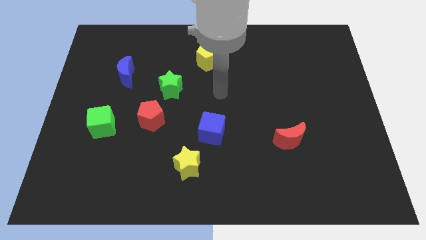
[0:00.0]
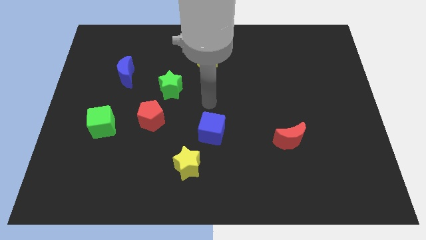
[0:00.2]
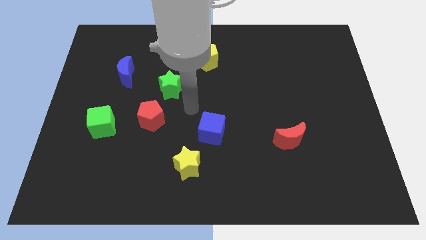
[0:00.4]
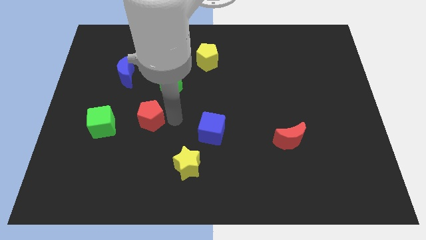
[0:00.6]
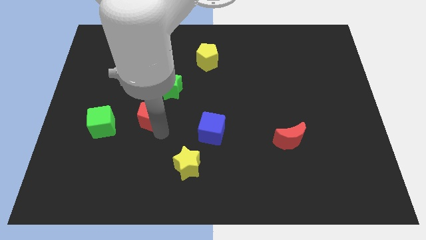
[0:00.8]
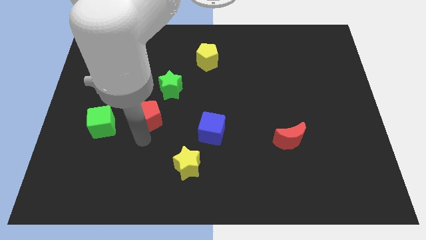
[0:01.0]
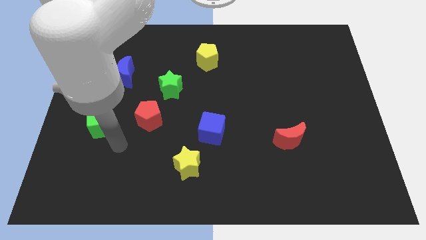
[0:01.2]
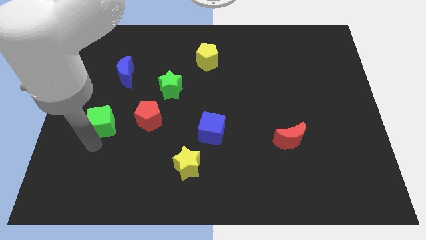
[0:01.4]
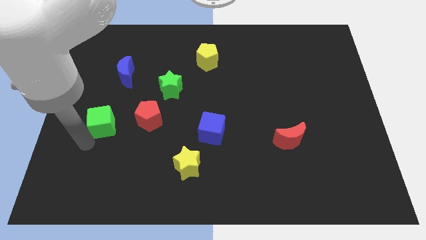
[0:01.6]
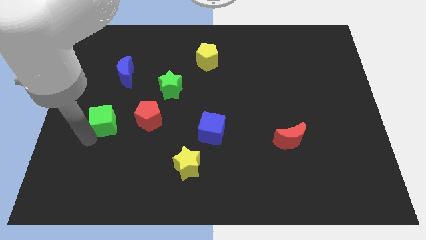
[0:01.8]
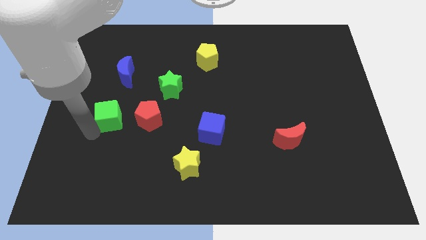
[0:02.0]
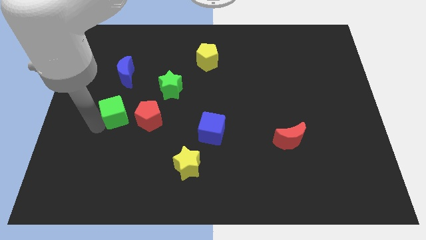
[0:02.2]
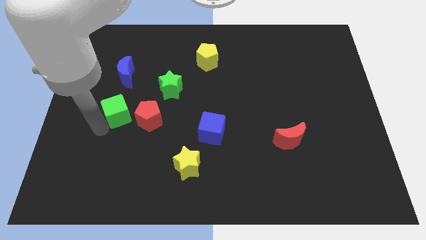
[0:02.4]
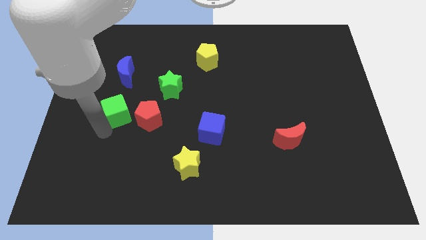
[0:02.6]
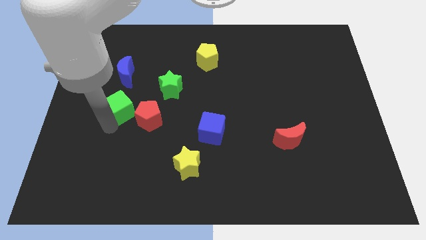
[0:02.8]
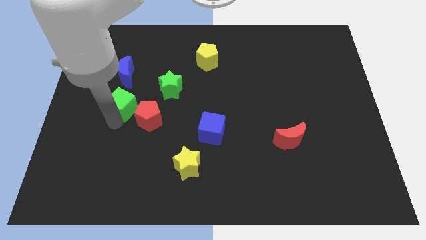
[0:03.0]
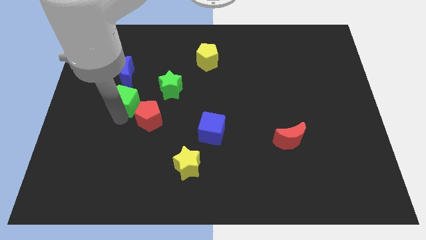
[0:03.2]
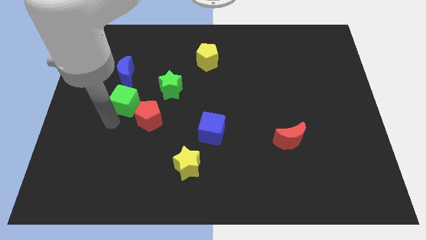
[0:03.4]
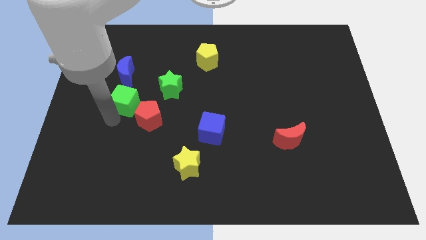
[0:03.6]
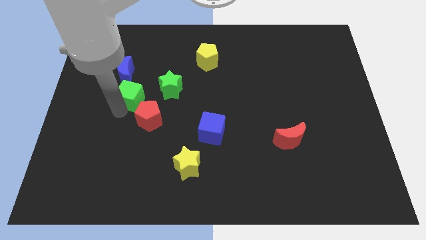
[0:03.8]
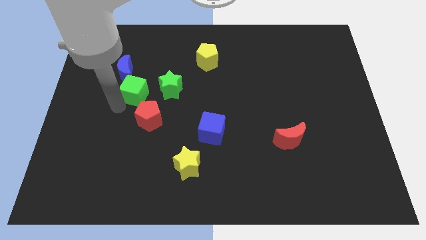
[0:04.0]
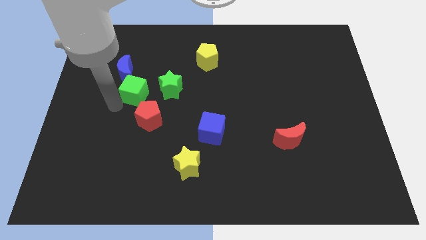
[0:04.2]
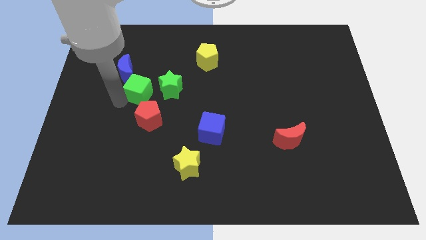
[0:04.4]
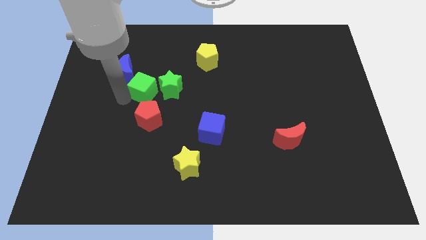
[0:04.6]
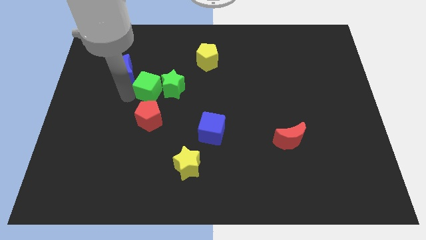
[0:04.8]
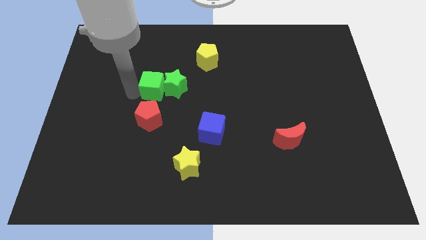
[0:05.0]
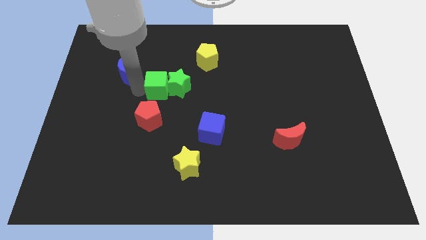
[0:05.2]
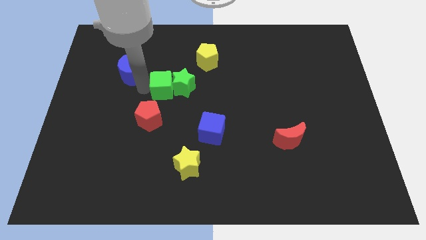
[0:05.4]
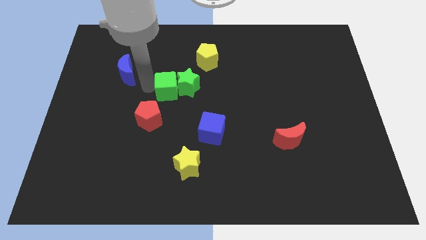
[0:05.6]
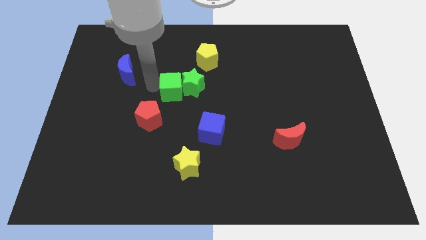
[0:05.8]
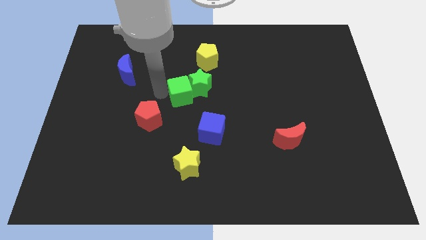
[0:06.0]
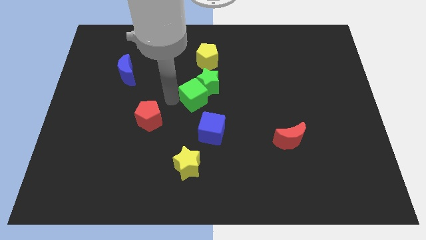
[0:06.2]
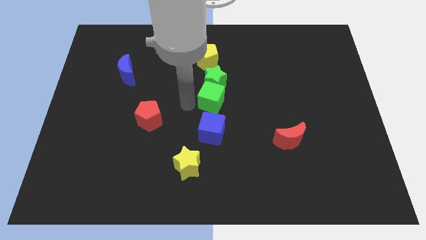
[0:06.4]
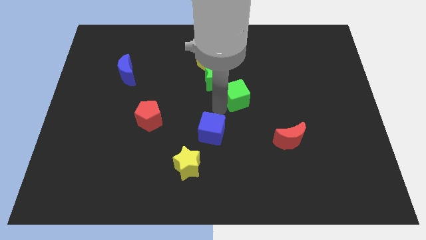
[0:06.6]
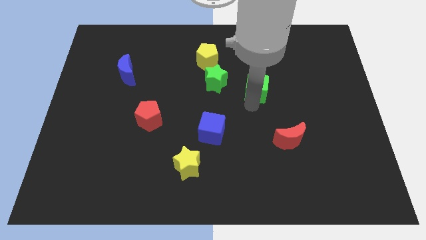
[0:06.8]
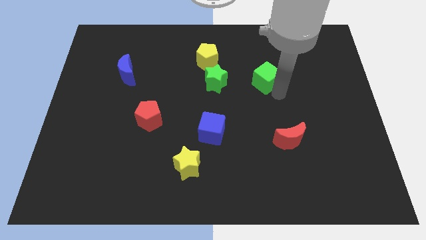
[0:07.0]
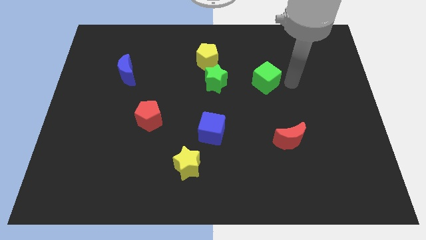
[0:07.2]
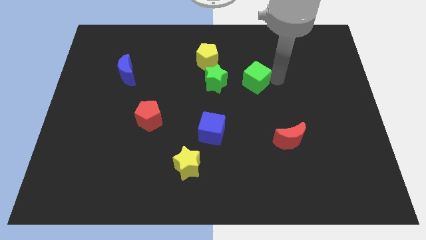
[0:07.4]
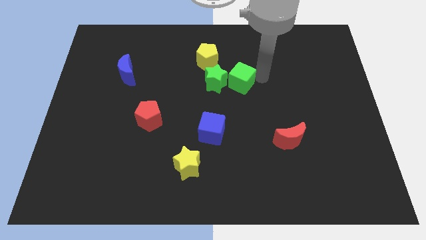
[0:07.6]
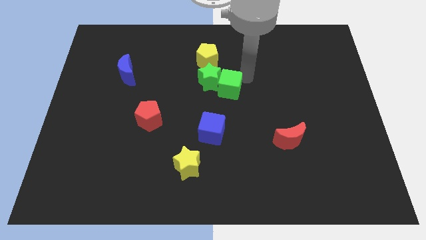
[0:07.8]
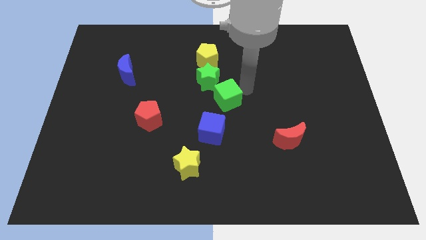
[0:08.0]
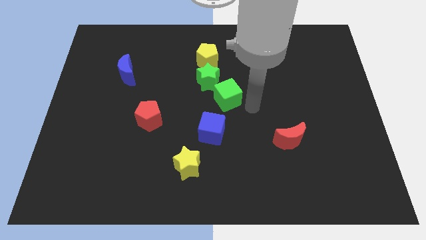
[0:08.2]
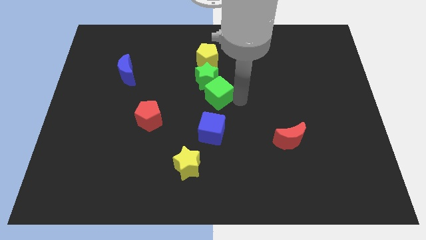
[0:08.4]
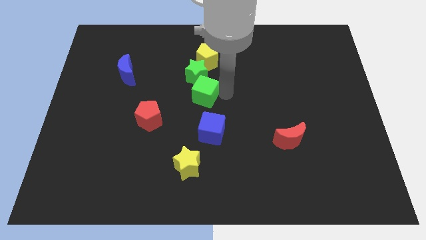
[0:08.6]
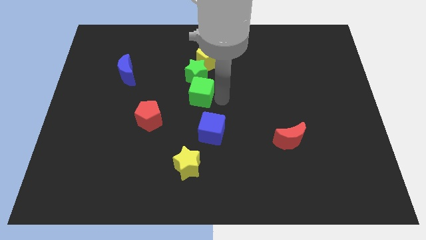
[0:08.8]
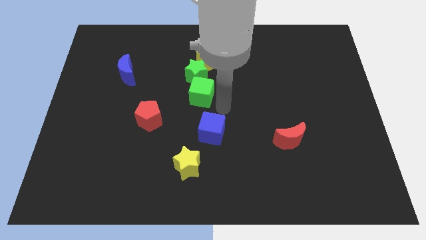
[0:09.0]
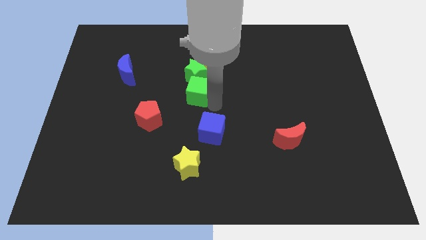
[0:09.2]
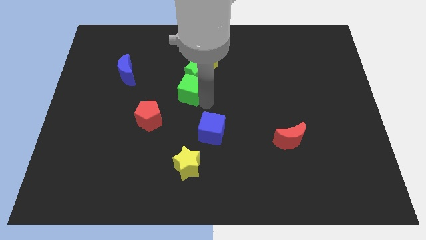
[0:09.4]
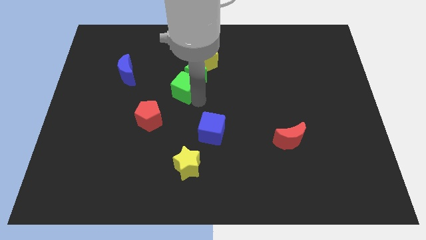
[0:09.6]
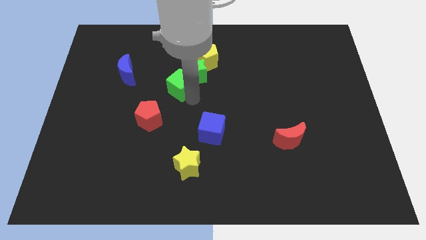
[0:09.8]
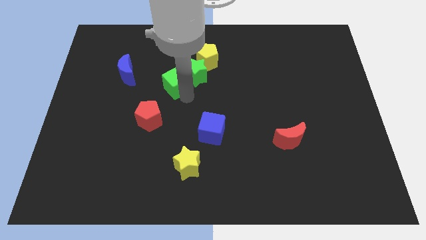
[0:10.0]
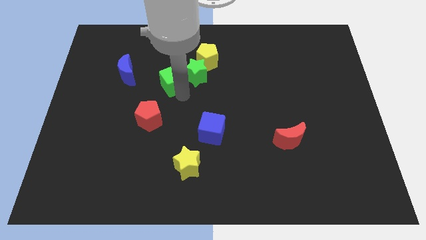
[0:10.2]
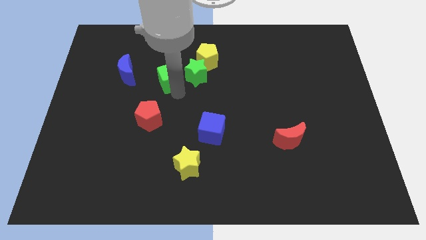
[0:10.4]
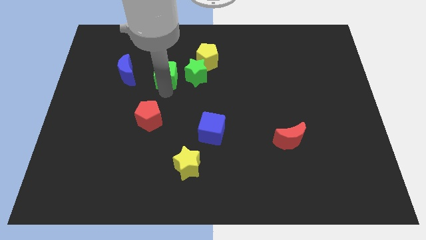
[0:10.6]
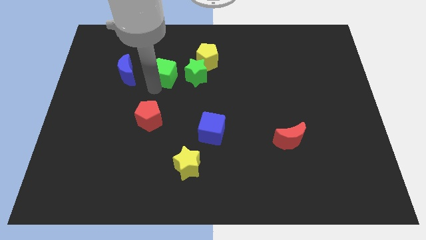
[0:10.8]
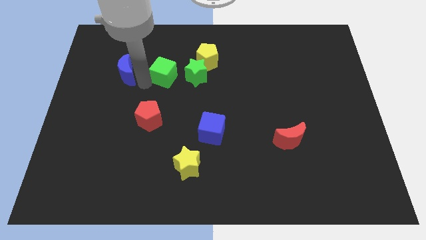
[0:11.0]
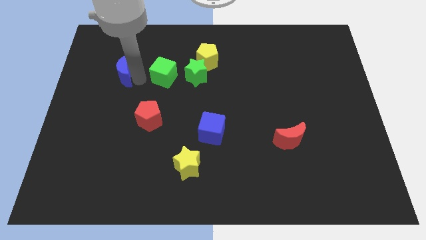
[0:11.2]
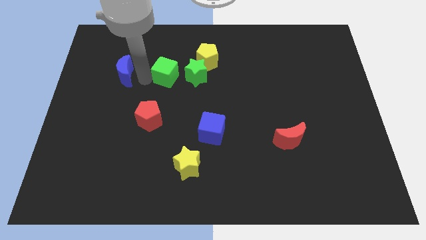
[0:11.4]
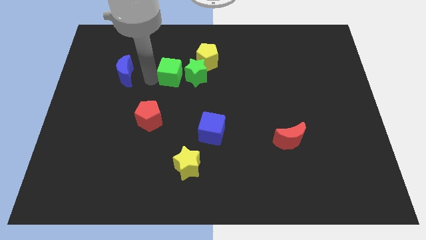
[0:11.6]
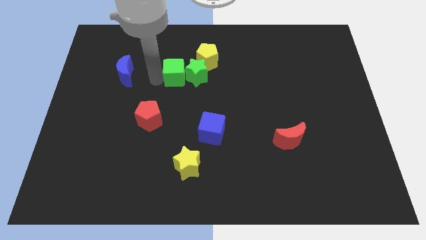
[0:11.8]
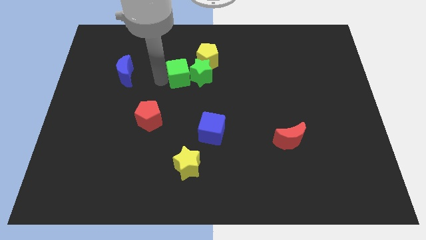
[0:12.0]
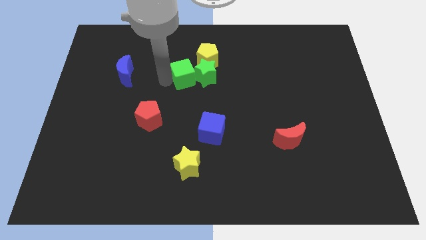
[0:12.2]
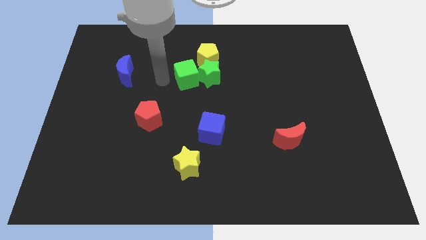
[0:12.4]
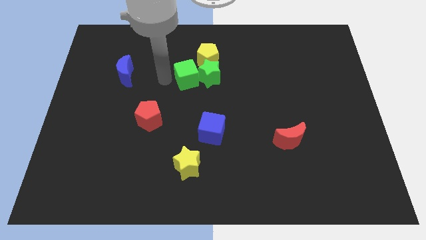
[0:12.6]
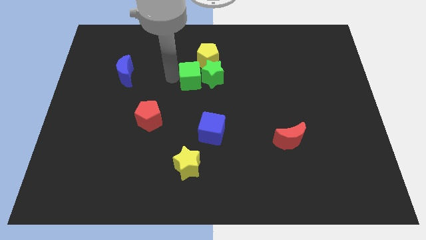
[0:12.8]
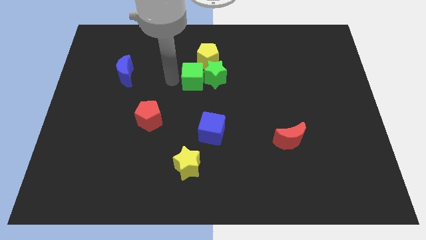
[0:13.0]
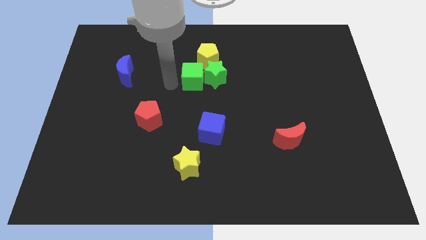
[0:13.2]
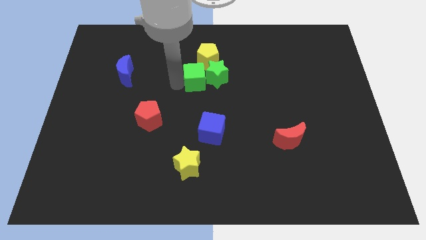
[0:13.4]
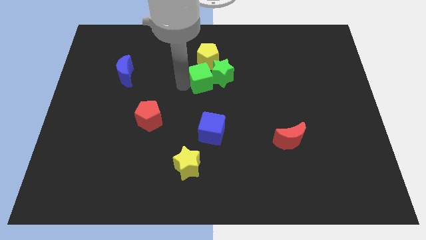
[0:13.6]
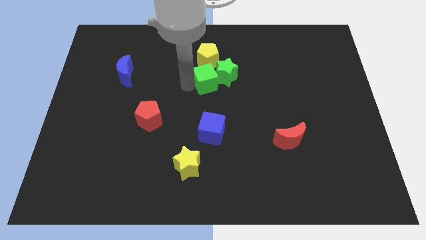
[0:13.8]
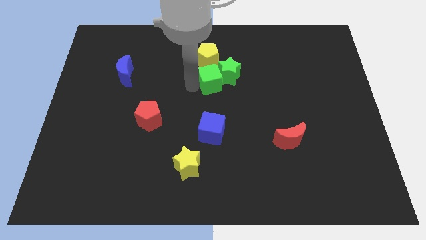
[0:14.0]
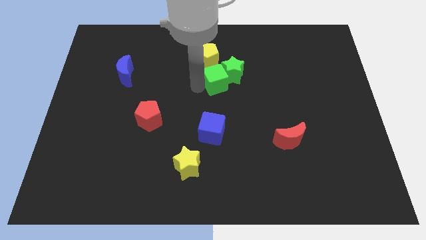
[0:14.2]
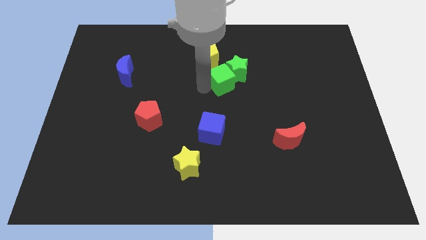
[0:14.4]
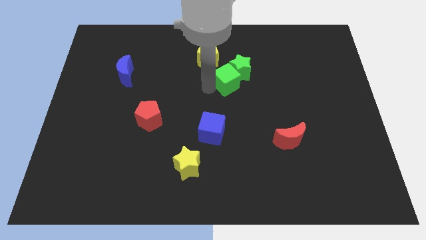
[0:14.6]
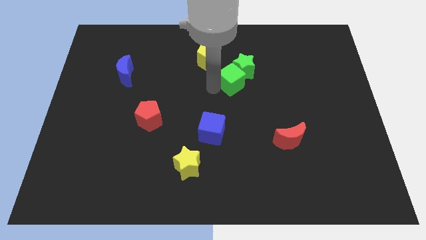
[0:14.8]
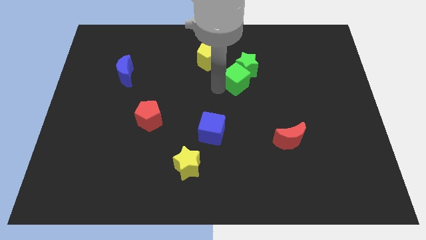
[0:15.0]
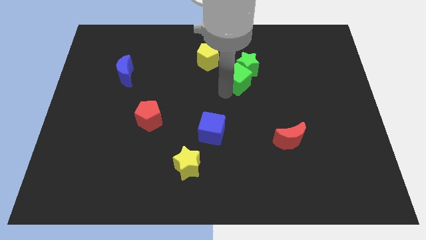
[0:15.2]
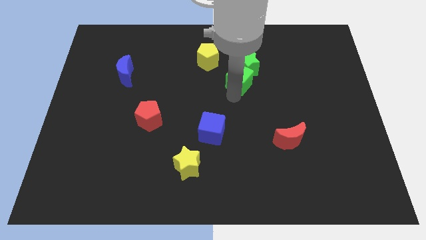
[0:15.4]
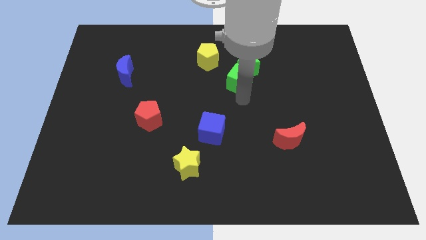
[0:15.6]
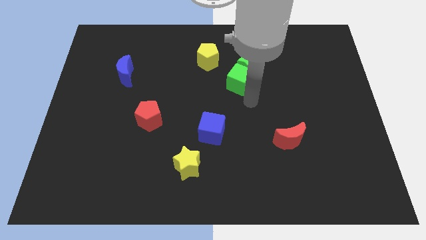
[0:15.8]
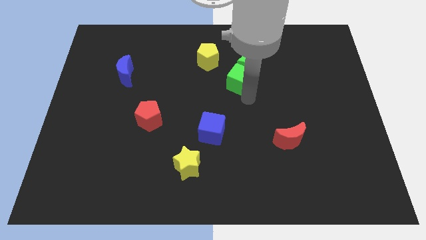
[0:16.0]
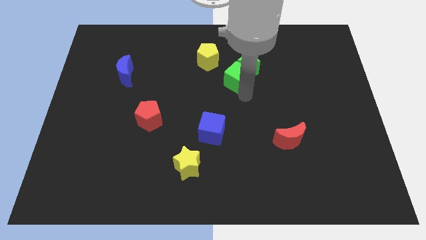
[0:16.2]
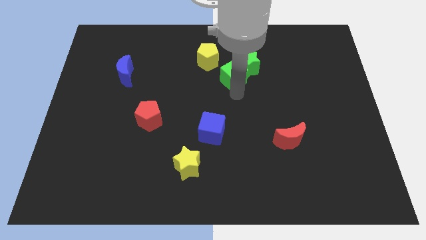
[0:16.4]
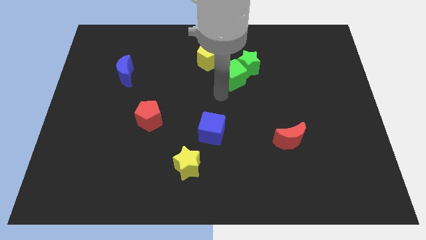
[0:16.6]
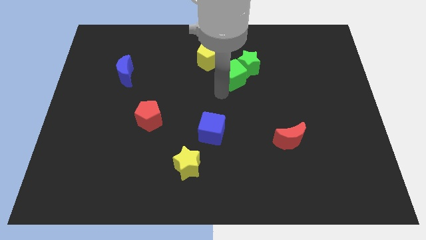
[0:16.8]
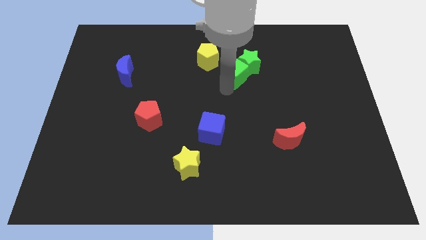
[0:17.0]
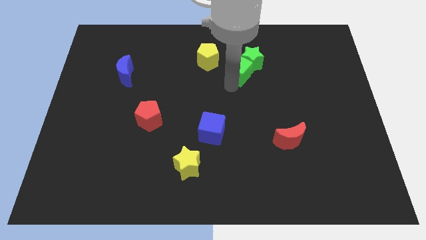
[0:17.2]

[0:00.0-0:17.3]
slide the green cube just right of the yellow pentagon
